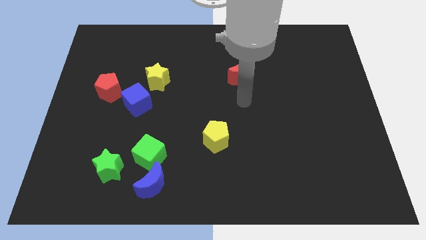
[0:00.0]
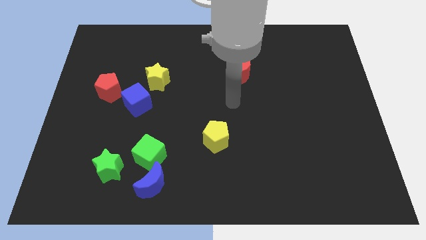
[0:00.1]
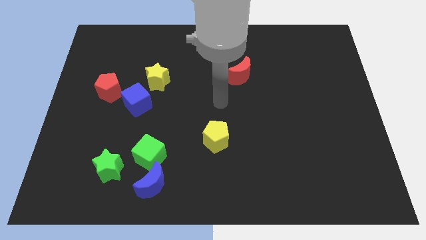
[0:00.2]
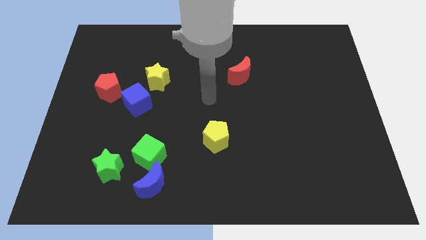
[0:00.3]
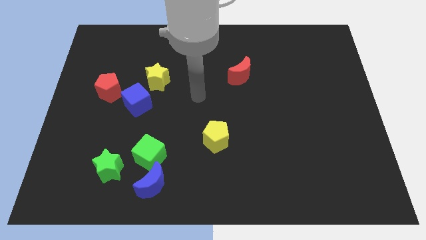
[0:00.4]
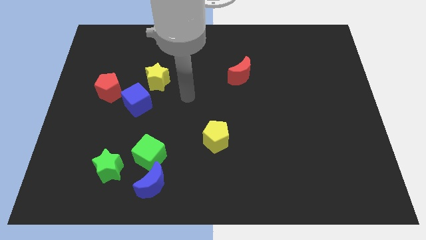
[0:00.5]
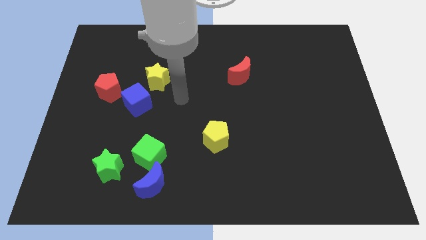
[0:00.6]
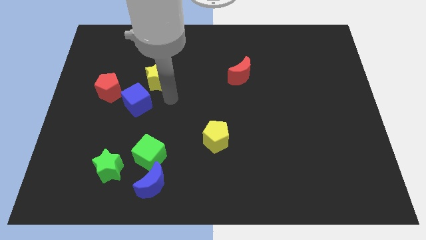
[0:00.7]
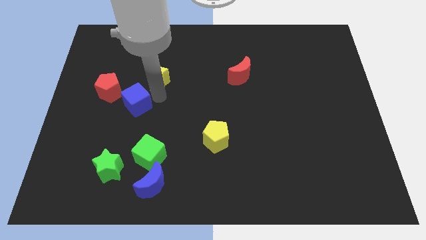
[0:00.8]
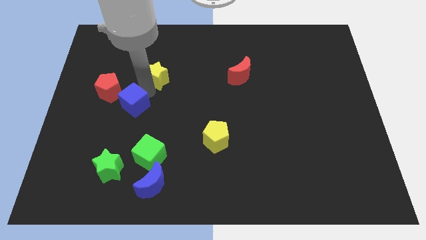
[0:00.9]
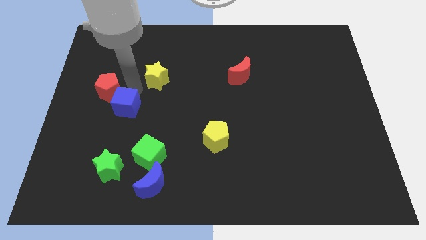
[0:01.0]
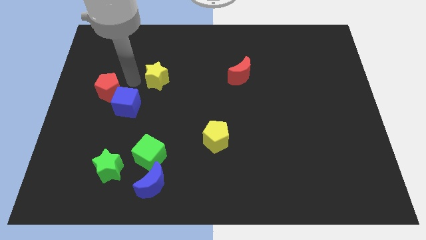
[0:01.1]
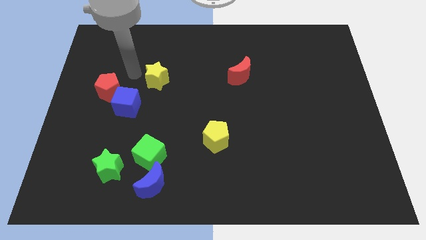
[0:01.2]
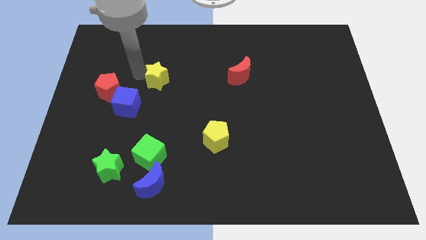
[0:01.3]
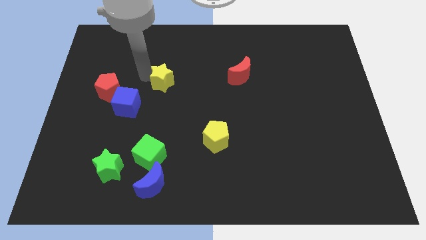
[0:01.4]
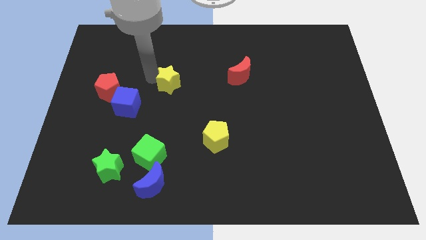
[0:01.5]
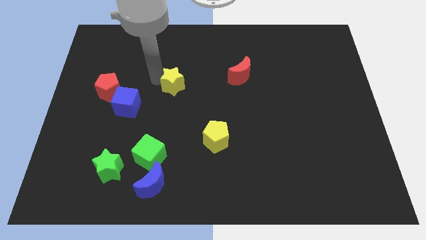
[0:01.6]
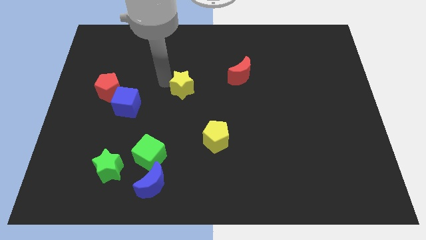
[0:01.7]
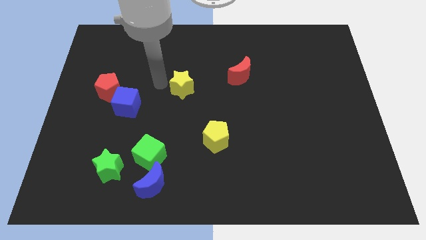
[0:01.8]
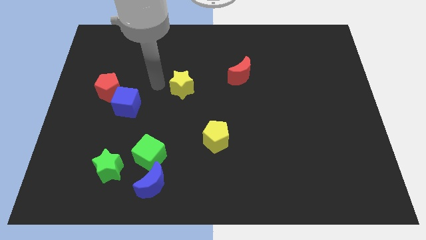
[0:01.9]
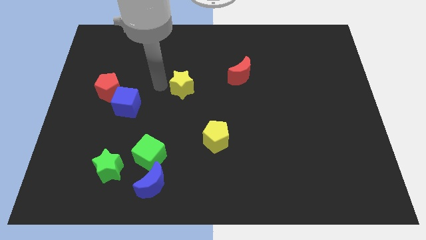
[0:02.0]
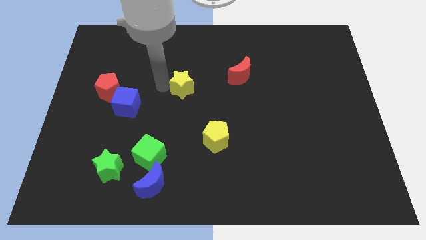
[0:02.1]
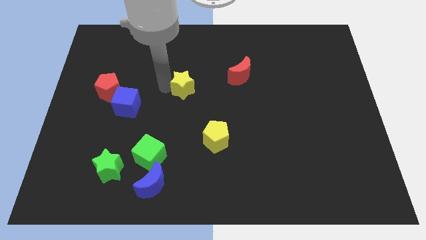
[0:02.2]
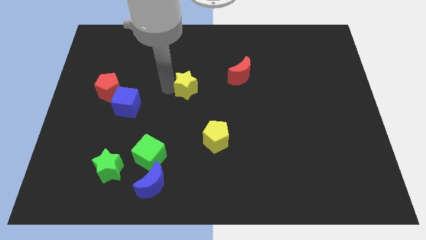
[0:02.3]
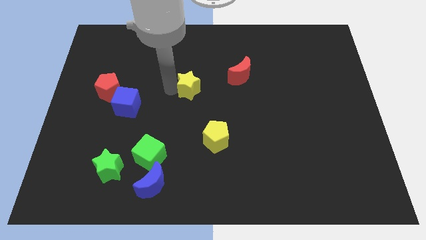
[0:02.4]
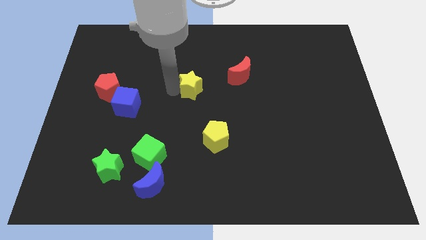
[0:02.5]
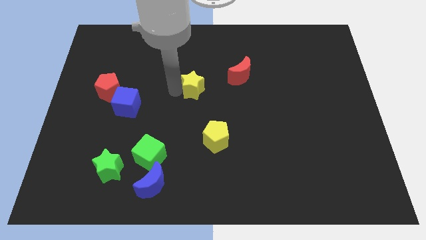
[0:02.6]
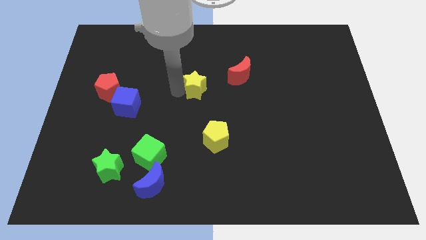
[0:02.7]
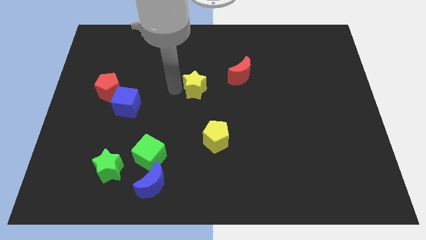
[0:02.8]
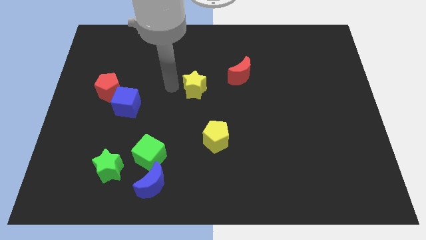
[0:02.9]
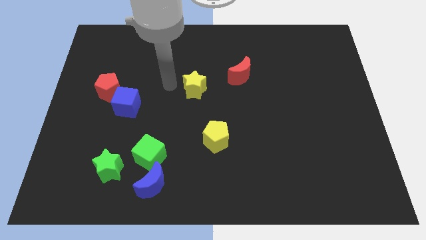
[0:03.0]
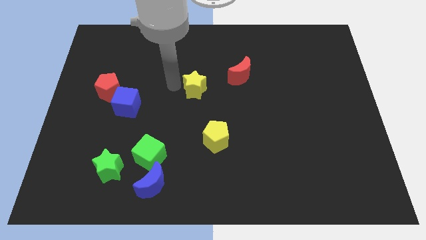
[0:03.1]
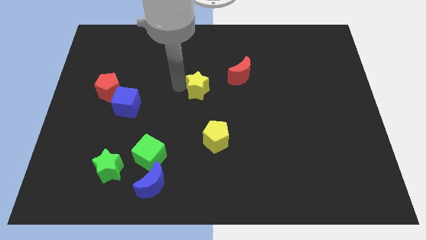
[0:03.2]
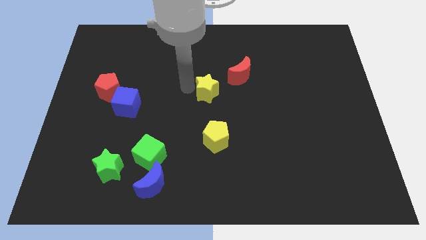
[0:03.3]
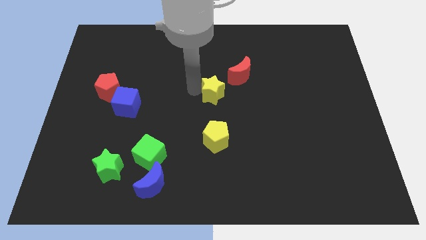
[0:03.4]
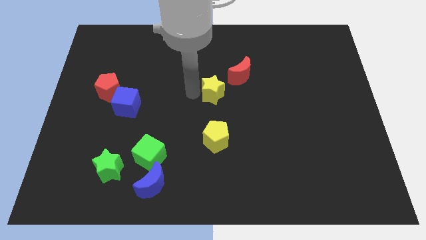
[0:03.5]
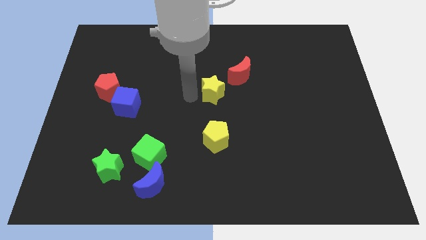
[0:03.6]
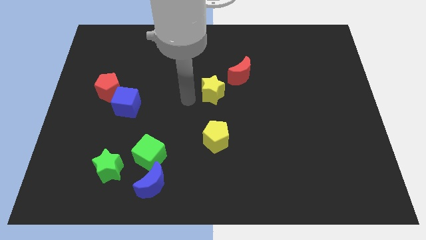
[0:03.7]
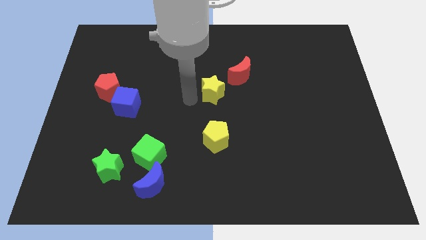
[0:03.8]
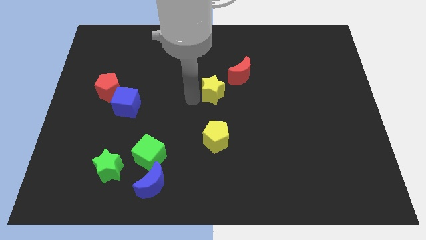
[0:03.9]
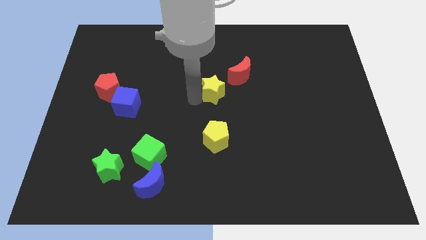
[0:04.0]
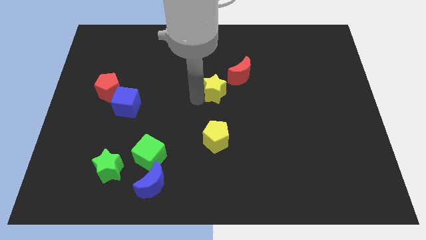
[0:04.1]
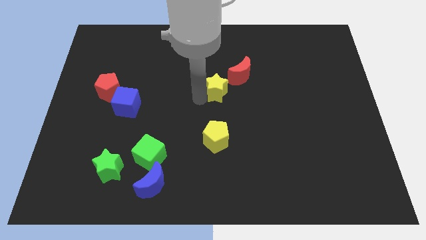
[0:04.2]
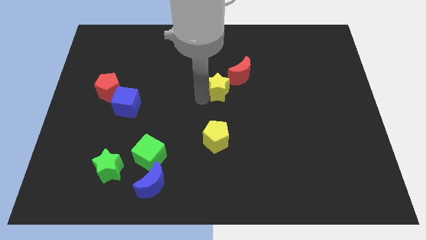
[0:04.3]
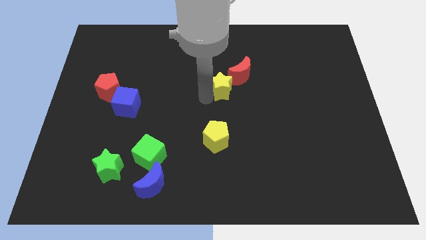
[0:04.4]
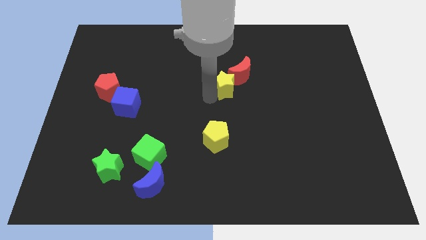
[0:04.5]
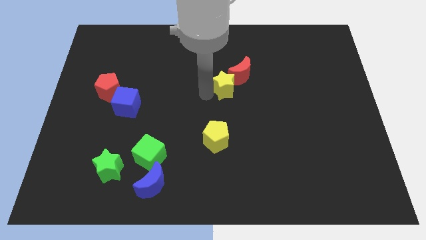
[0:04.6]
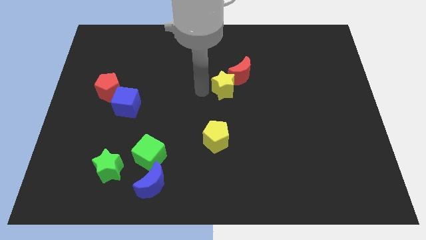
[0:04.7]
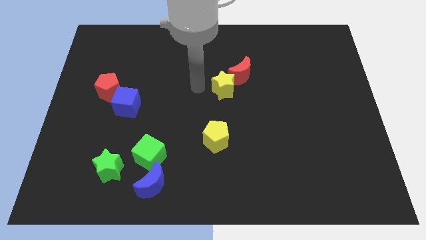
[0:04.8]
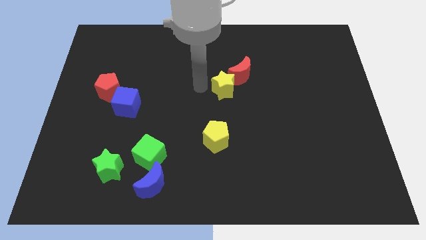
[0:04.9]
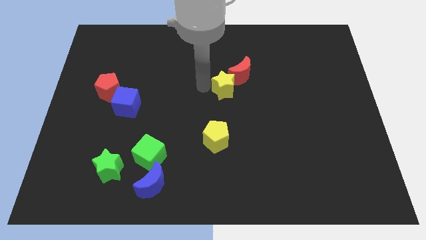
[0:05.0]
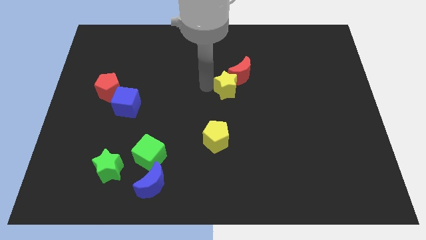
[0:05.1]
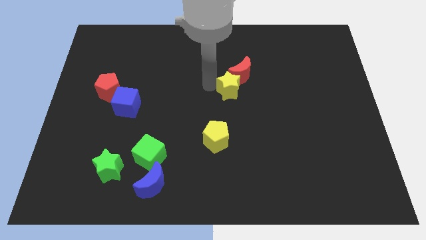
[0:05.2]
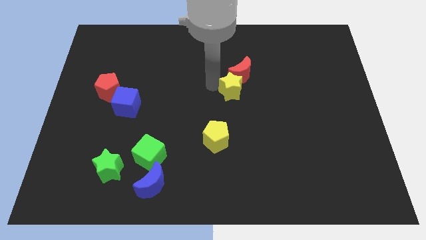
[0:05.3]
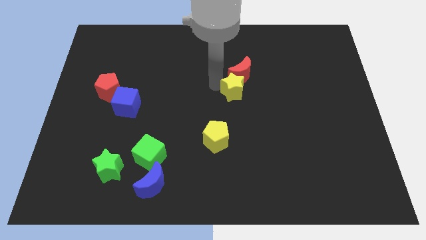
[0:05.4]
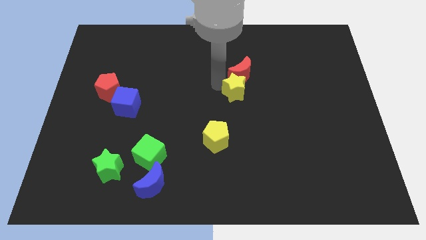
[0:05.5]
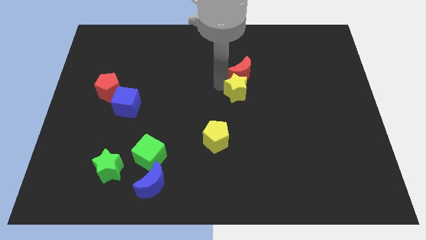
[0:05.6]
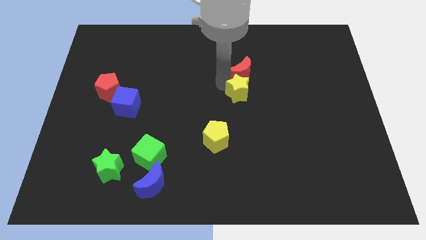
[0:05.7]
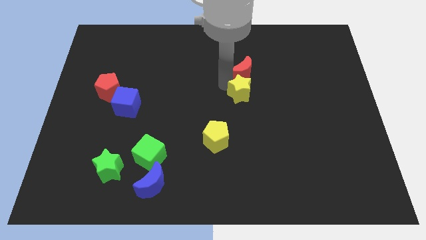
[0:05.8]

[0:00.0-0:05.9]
move the yellow star to the right

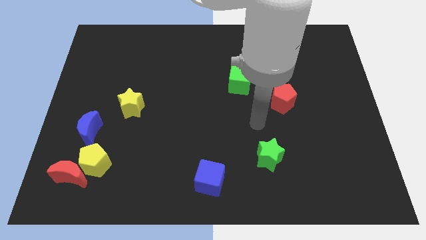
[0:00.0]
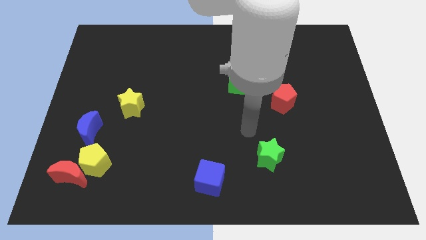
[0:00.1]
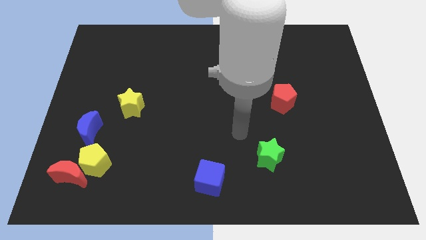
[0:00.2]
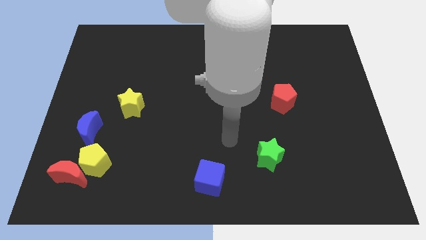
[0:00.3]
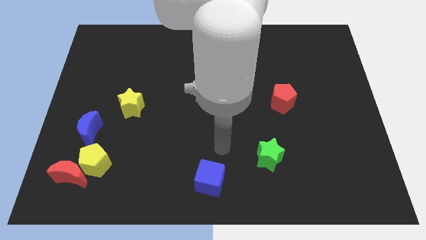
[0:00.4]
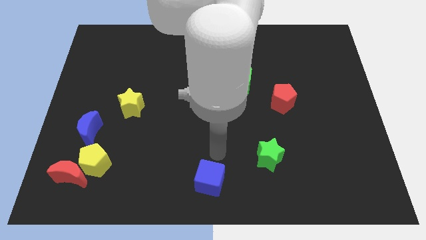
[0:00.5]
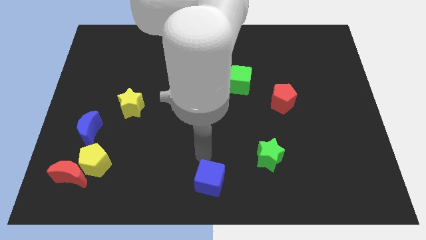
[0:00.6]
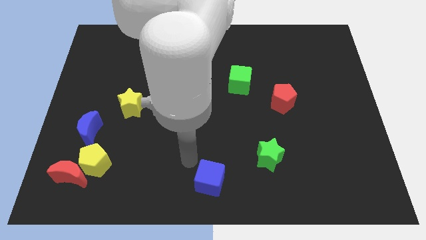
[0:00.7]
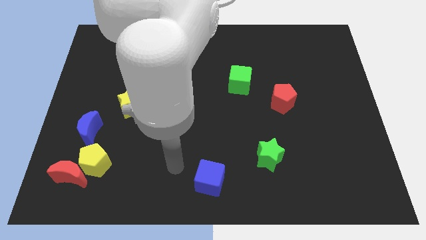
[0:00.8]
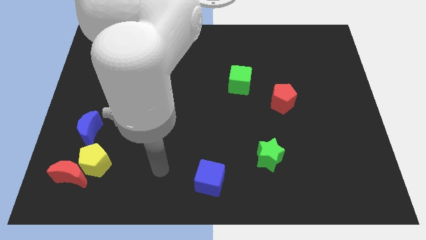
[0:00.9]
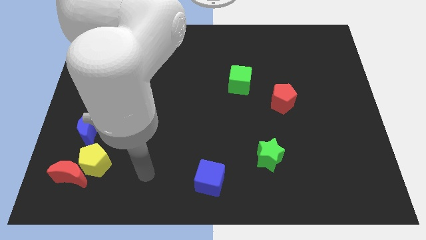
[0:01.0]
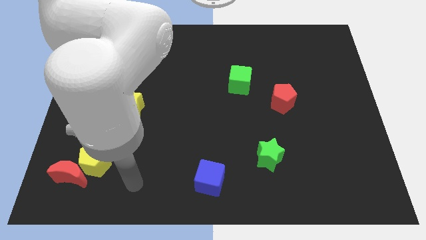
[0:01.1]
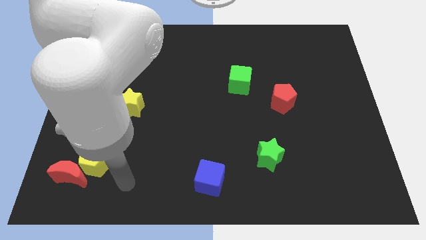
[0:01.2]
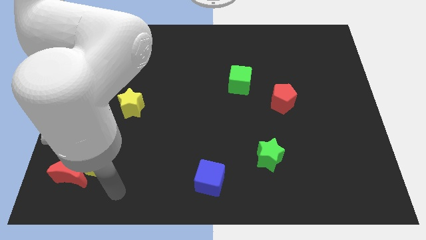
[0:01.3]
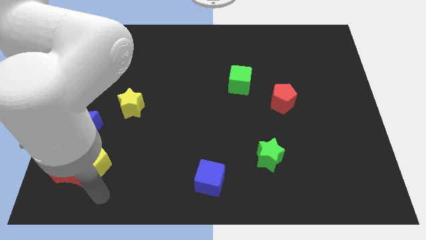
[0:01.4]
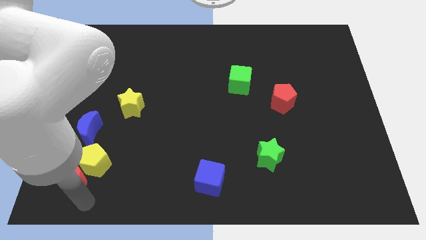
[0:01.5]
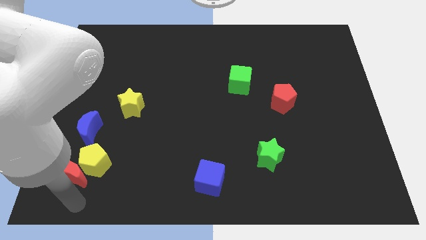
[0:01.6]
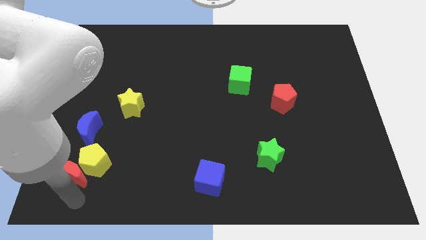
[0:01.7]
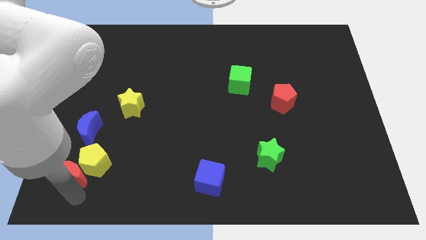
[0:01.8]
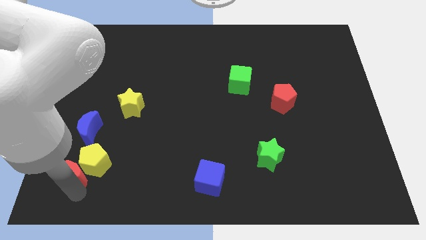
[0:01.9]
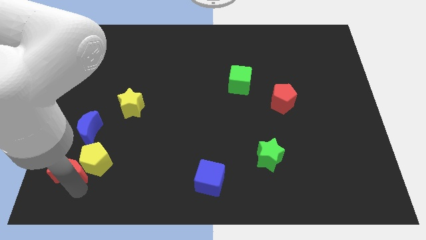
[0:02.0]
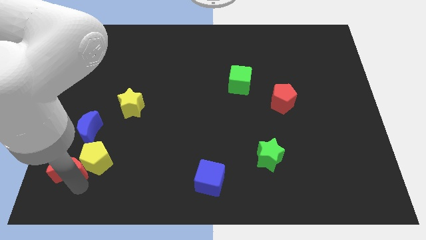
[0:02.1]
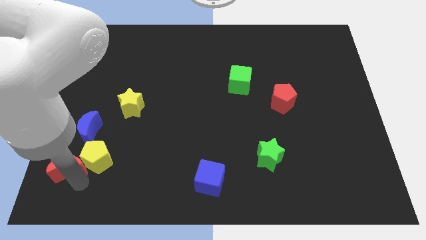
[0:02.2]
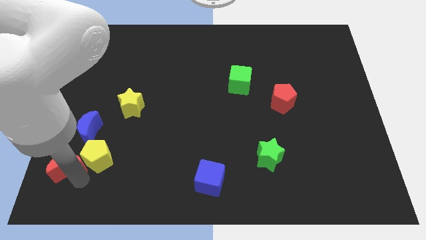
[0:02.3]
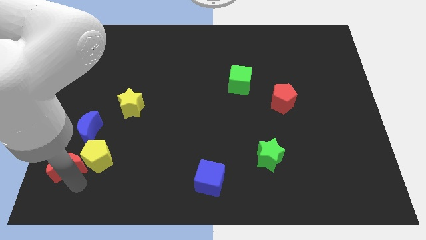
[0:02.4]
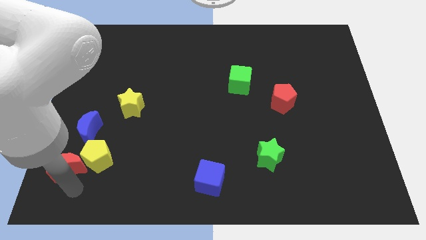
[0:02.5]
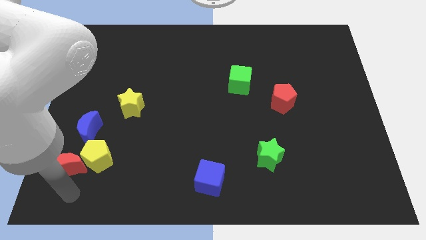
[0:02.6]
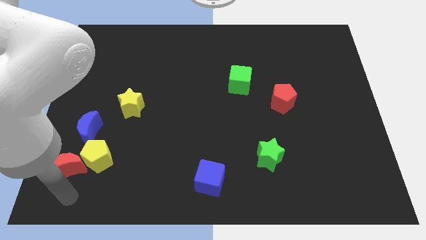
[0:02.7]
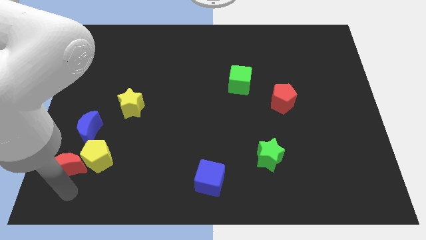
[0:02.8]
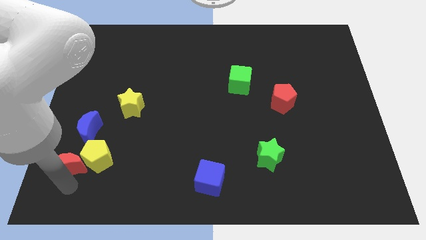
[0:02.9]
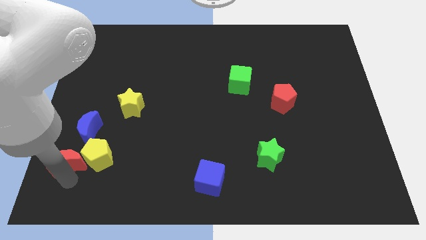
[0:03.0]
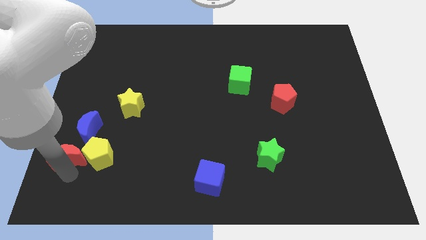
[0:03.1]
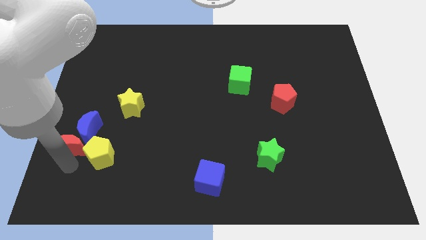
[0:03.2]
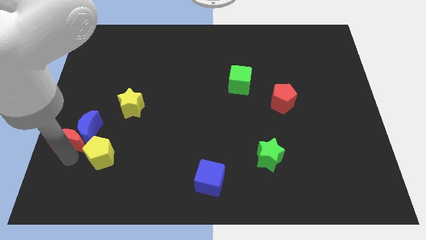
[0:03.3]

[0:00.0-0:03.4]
slide the red moon upwards a little
